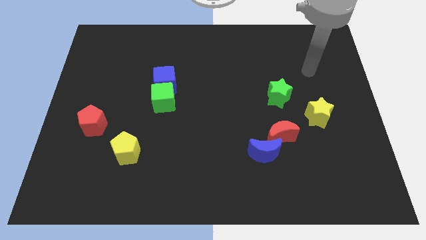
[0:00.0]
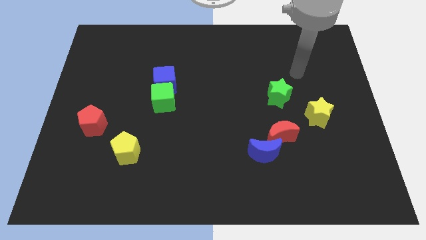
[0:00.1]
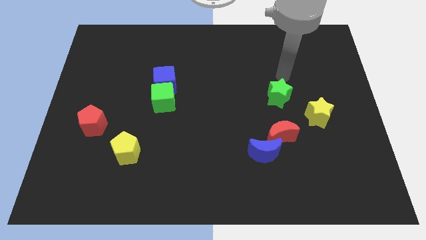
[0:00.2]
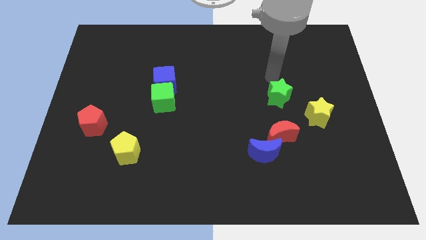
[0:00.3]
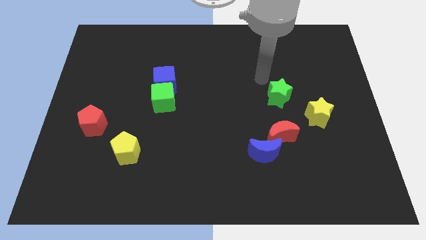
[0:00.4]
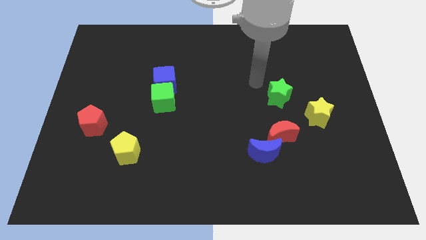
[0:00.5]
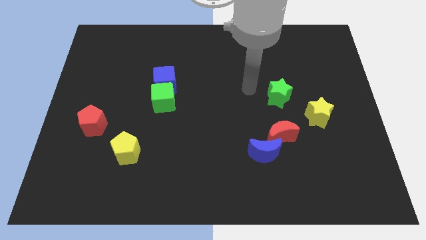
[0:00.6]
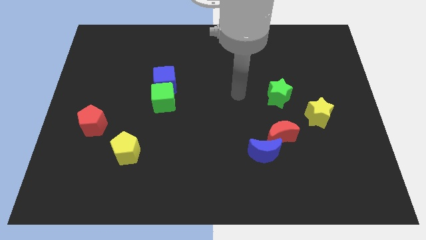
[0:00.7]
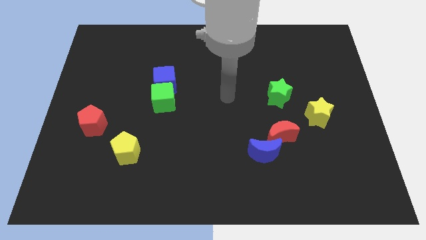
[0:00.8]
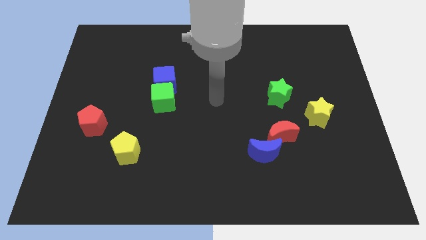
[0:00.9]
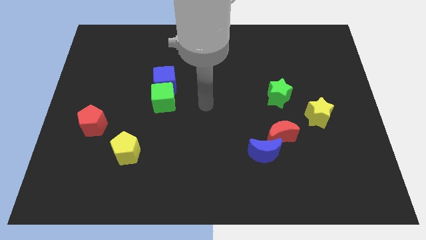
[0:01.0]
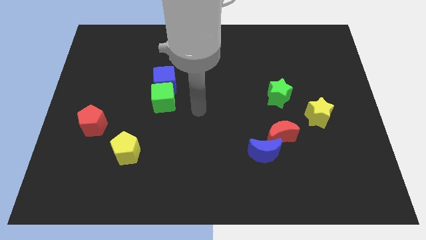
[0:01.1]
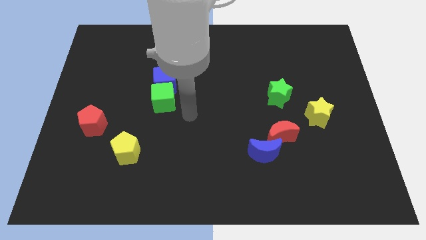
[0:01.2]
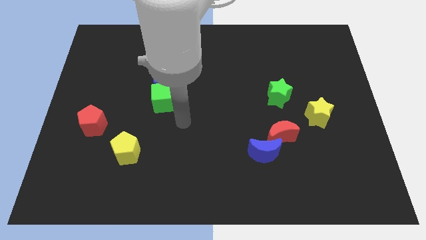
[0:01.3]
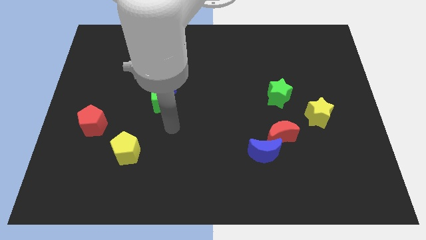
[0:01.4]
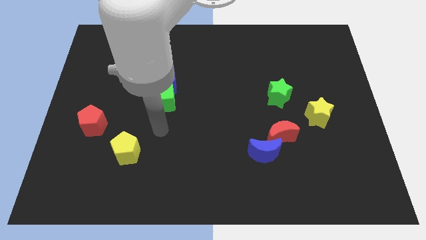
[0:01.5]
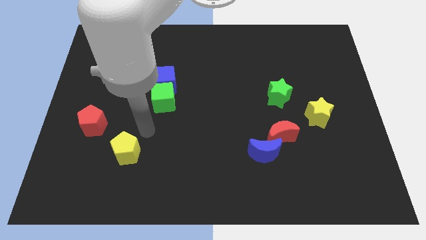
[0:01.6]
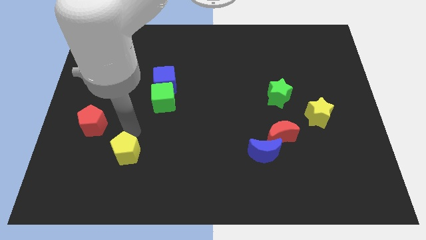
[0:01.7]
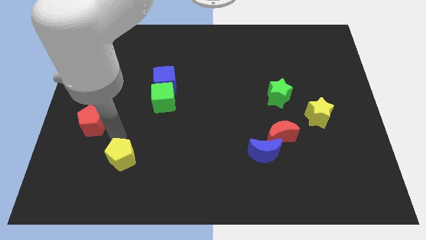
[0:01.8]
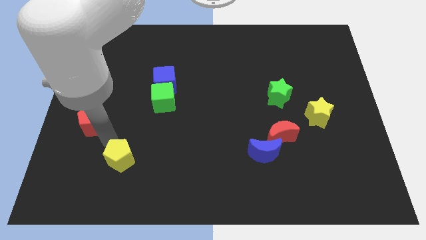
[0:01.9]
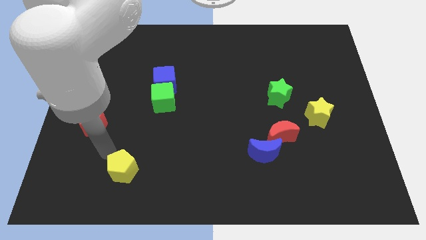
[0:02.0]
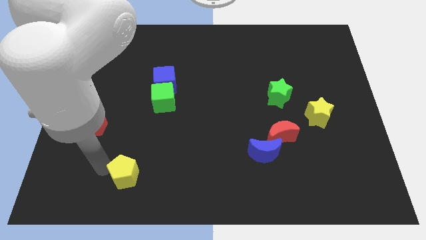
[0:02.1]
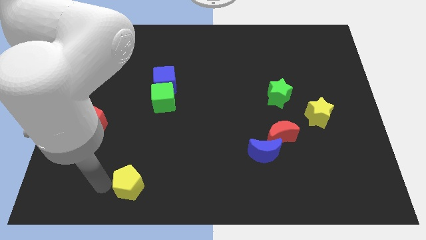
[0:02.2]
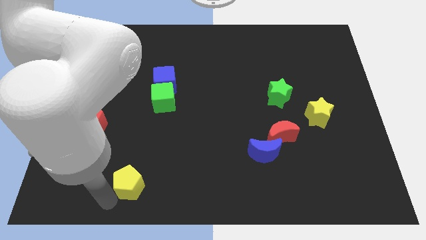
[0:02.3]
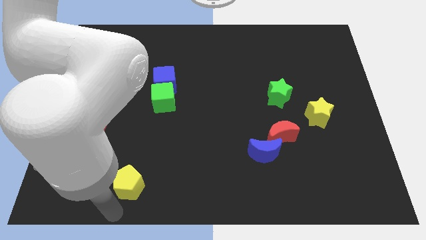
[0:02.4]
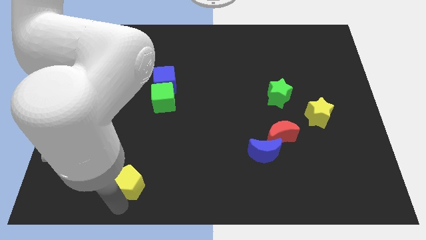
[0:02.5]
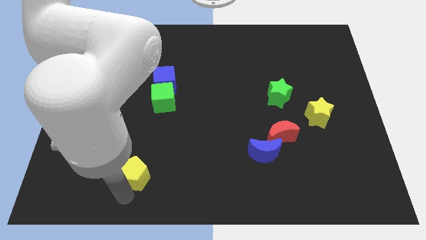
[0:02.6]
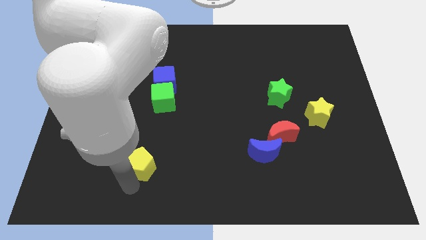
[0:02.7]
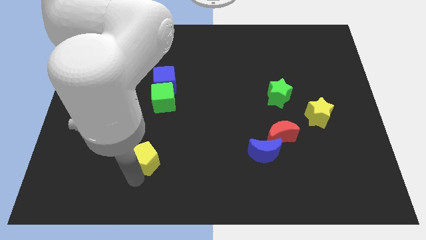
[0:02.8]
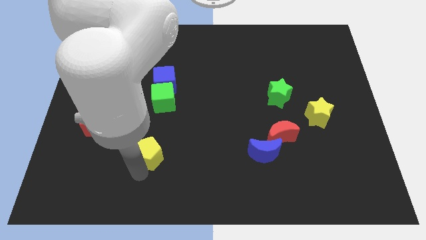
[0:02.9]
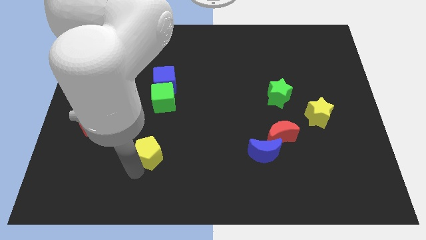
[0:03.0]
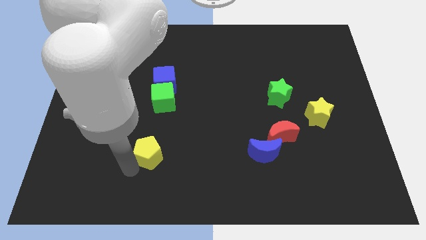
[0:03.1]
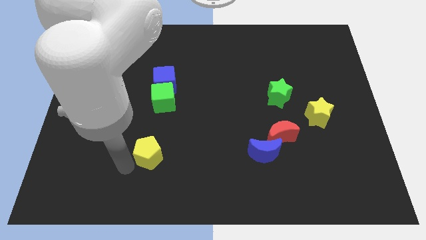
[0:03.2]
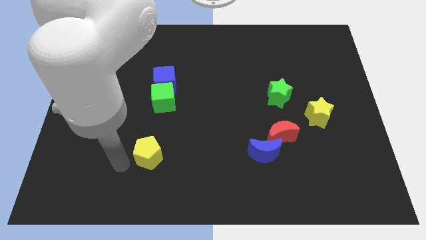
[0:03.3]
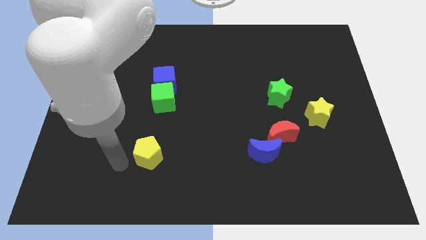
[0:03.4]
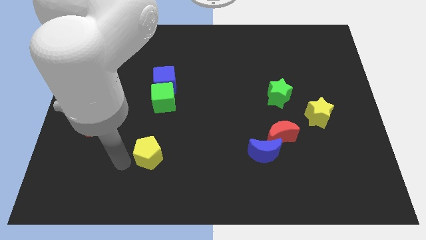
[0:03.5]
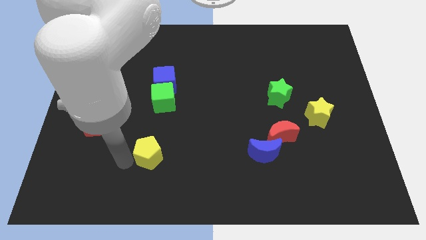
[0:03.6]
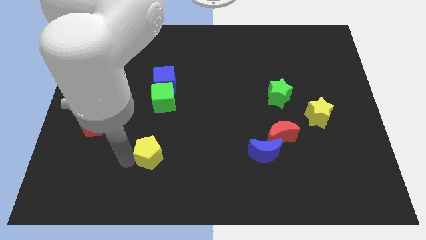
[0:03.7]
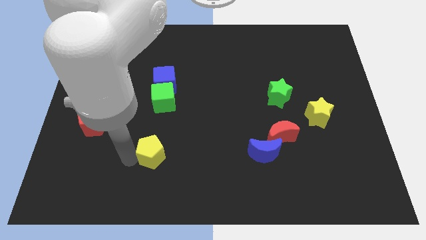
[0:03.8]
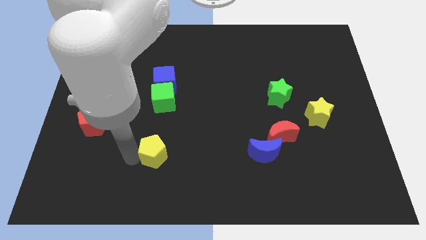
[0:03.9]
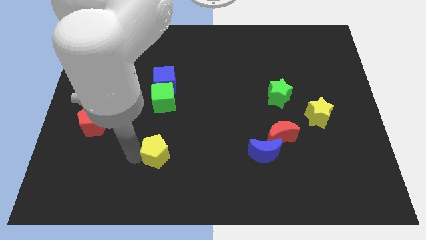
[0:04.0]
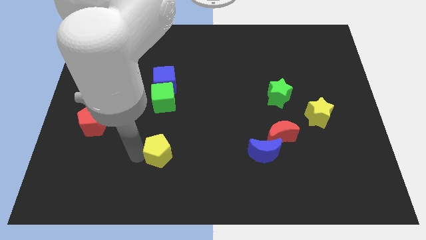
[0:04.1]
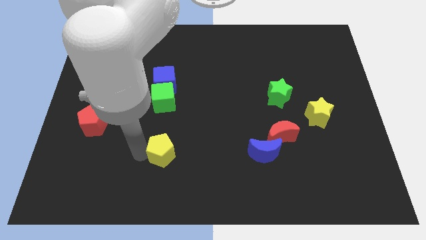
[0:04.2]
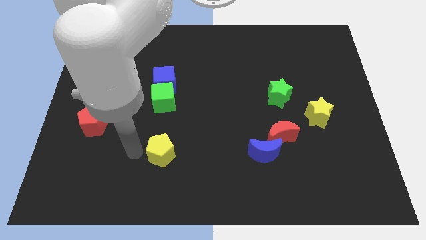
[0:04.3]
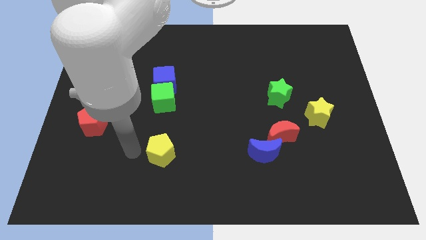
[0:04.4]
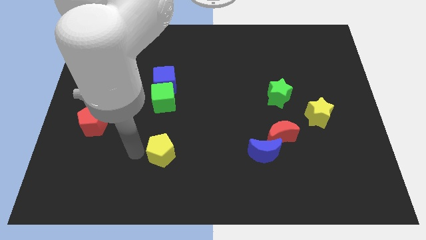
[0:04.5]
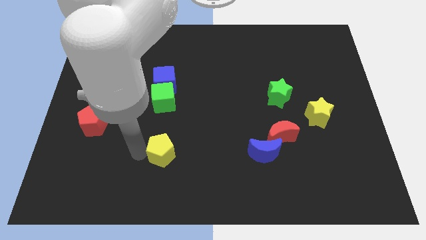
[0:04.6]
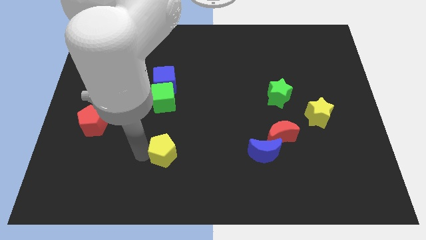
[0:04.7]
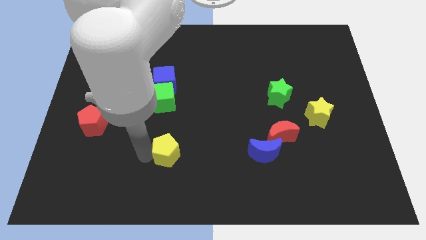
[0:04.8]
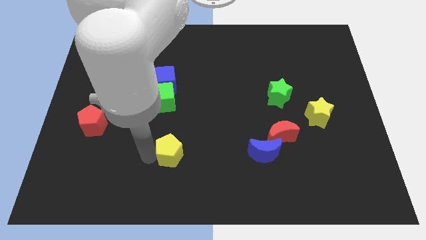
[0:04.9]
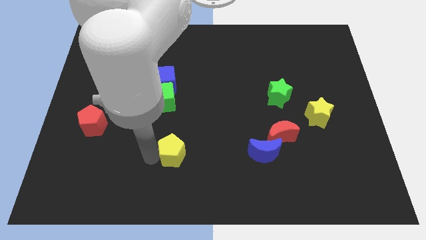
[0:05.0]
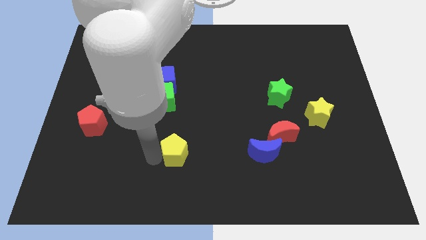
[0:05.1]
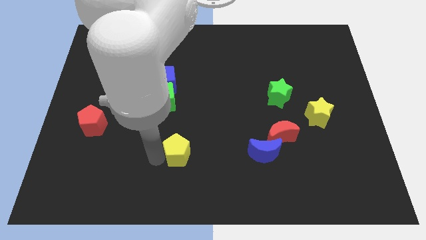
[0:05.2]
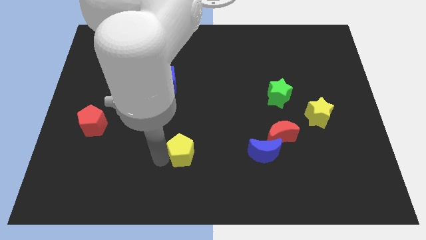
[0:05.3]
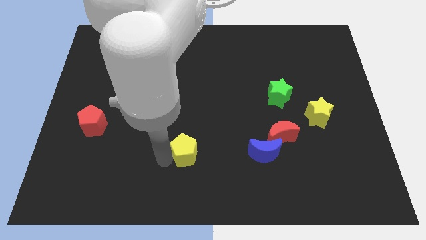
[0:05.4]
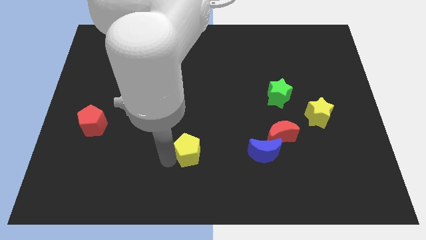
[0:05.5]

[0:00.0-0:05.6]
slide the yellow pentagon to the left side of the blue moon

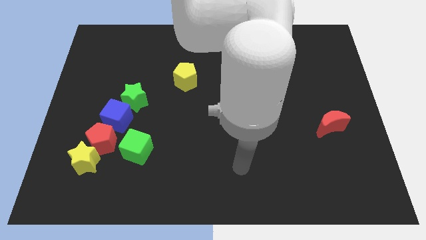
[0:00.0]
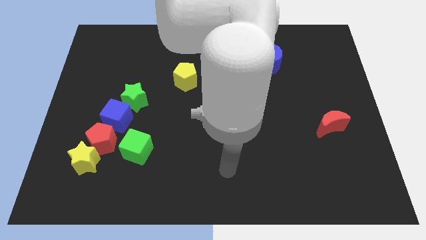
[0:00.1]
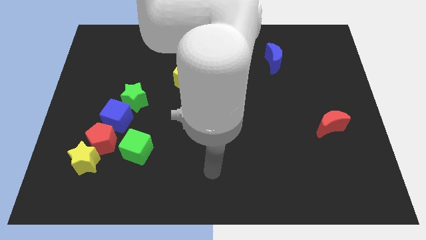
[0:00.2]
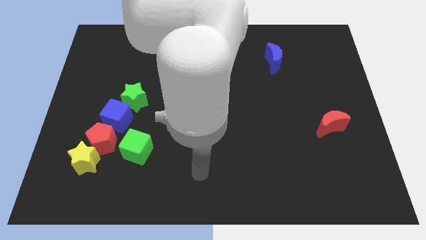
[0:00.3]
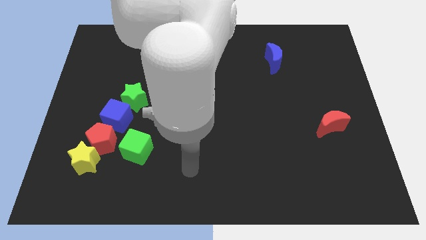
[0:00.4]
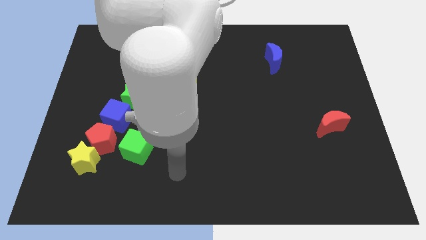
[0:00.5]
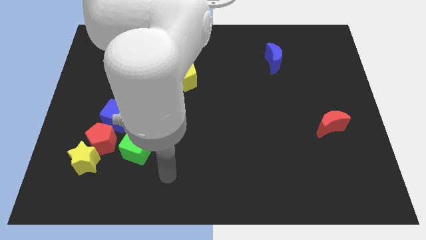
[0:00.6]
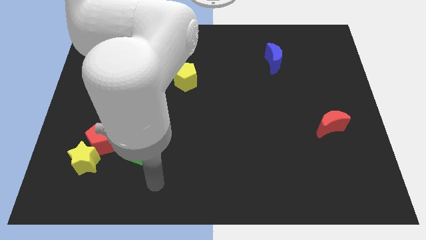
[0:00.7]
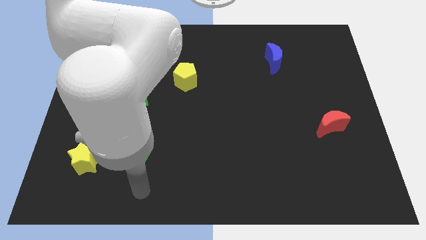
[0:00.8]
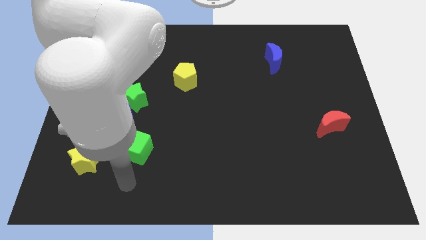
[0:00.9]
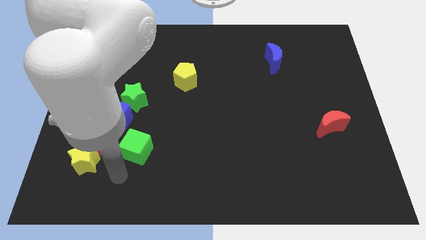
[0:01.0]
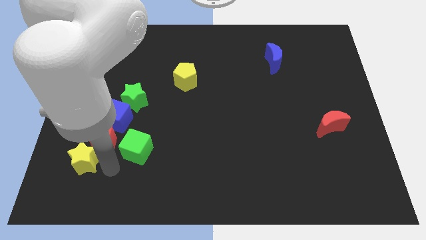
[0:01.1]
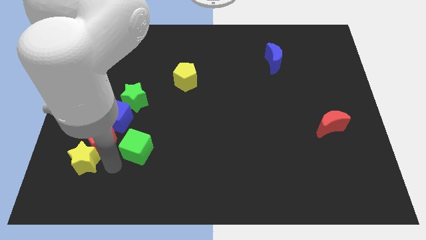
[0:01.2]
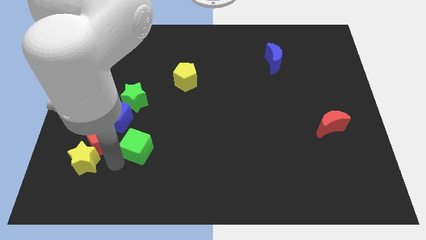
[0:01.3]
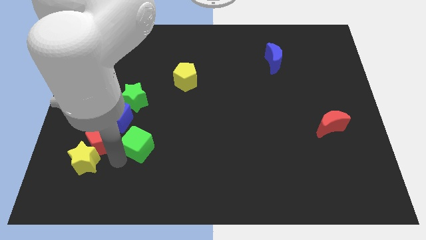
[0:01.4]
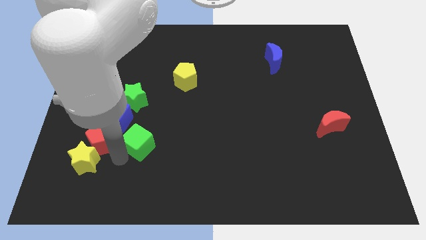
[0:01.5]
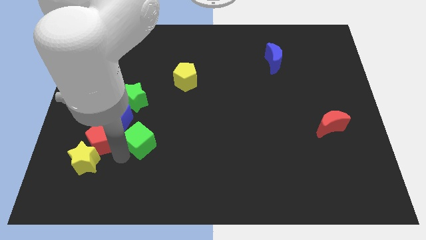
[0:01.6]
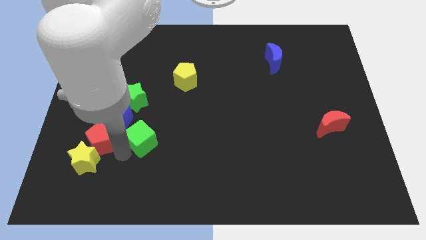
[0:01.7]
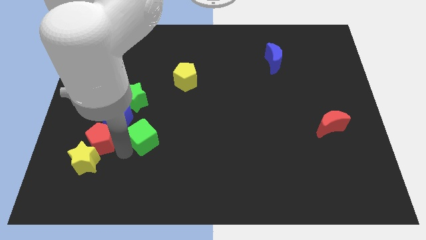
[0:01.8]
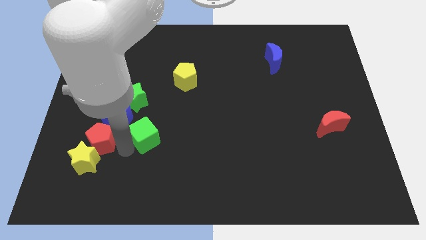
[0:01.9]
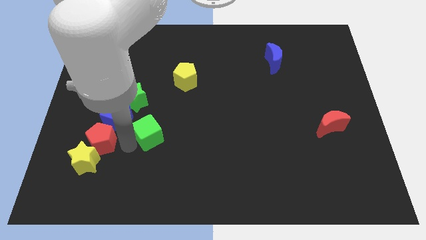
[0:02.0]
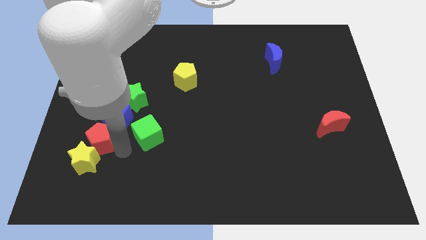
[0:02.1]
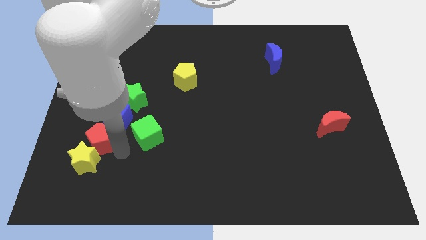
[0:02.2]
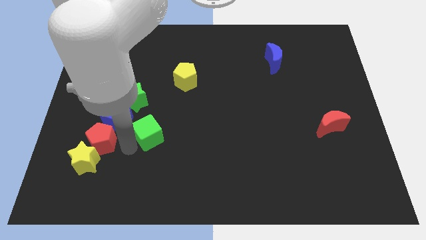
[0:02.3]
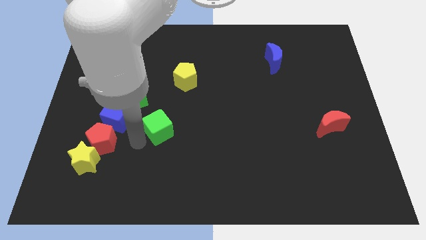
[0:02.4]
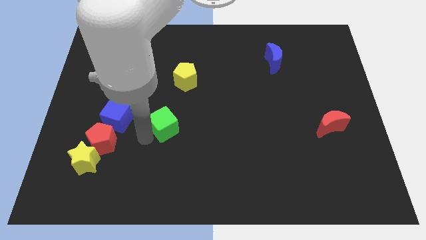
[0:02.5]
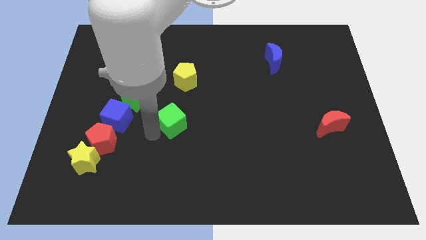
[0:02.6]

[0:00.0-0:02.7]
put the green cube to the bottom side of the yellow pentagon
